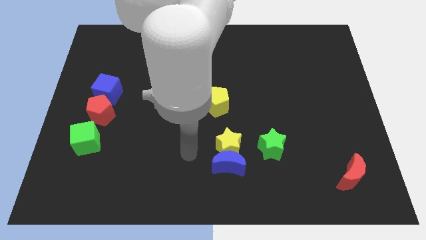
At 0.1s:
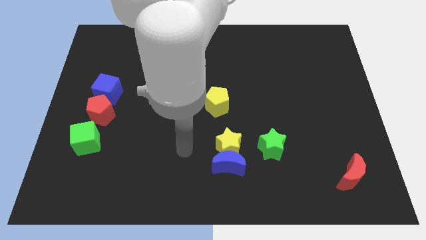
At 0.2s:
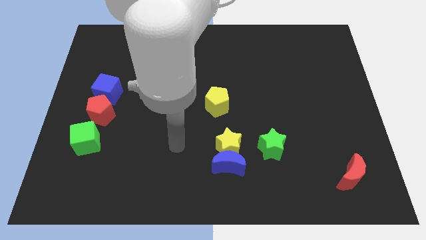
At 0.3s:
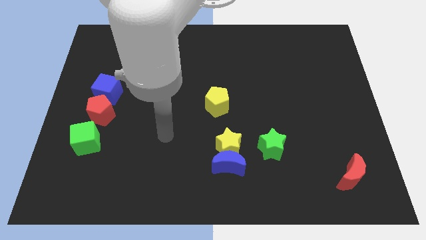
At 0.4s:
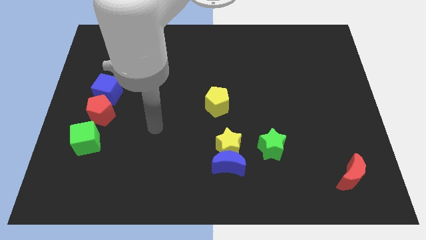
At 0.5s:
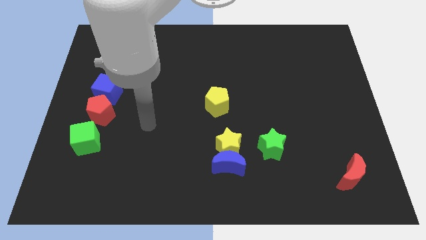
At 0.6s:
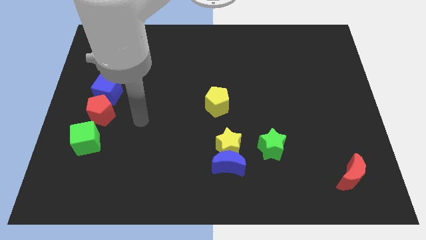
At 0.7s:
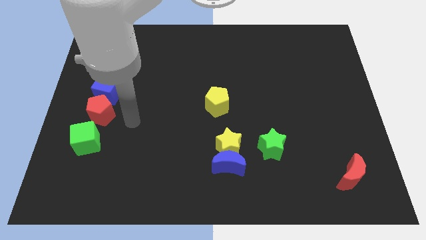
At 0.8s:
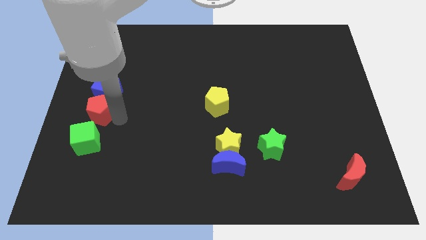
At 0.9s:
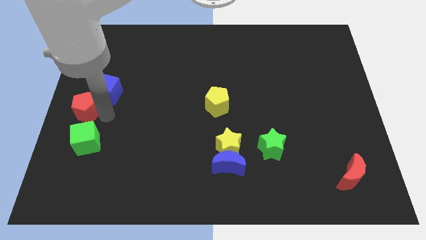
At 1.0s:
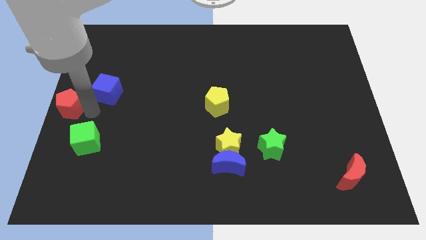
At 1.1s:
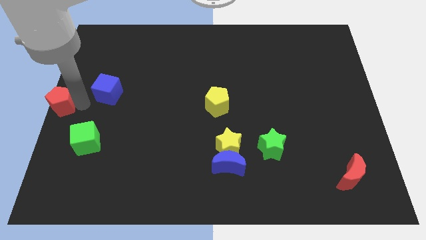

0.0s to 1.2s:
separate the blue cube from the red pentagon

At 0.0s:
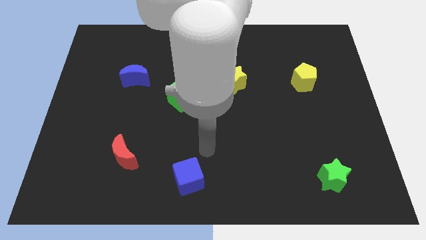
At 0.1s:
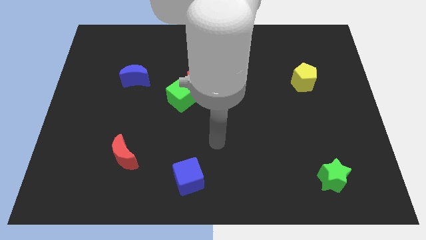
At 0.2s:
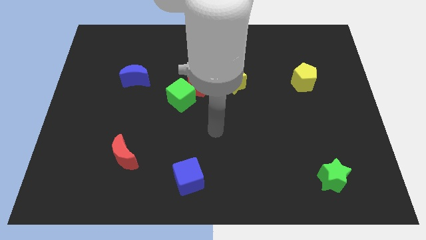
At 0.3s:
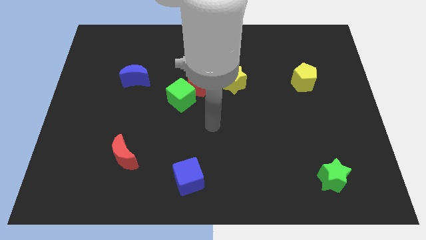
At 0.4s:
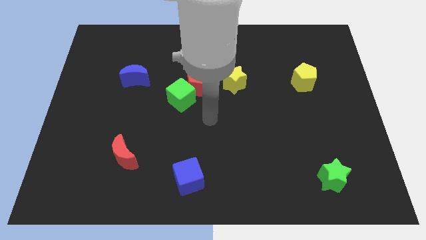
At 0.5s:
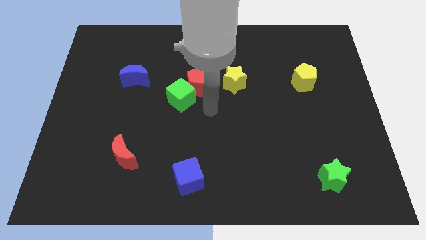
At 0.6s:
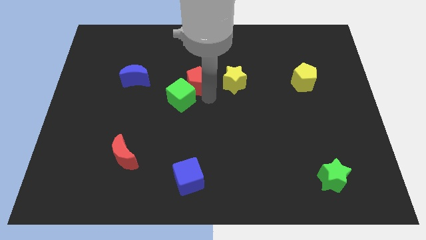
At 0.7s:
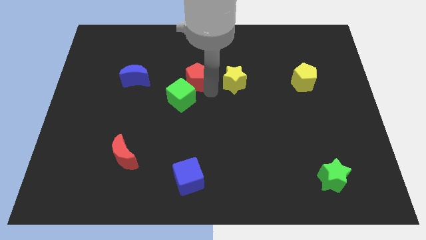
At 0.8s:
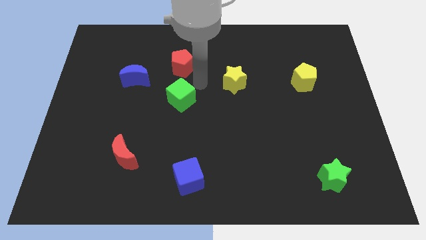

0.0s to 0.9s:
separate the green cube from the red pentagon

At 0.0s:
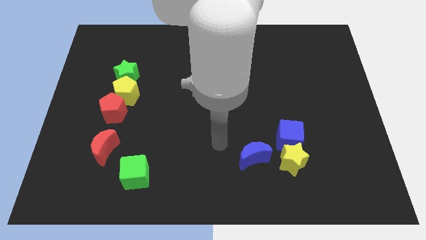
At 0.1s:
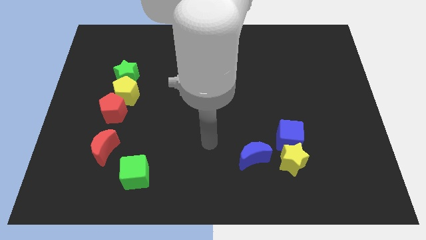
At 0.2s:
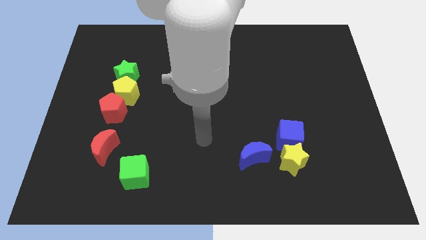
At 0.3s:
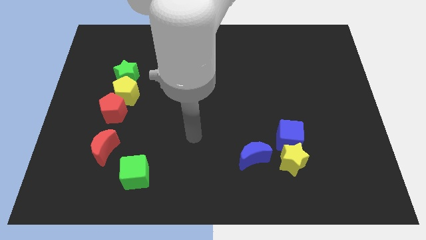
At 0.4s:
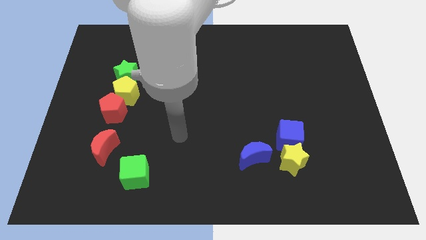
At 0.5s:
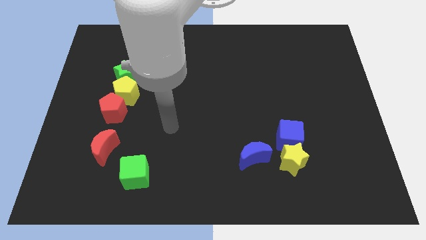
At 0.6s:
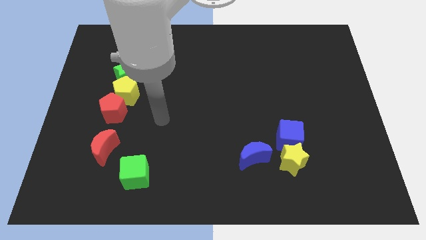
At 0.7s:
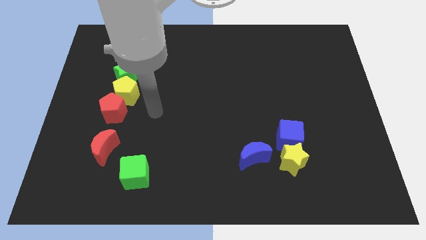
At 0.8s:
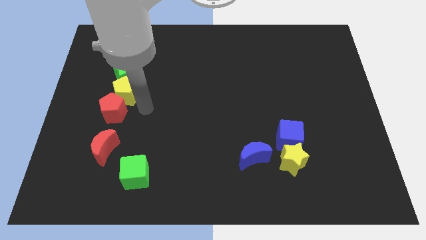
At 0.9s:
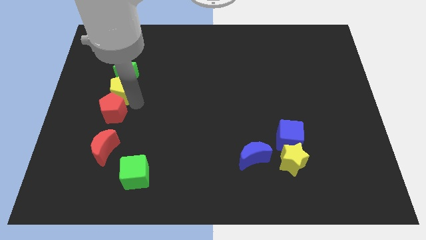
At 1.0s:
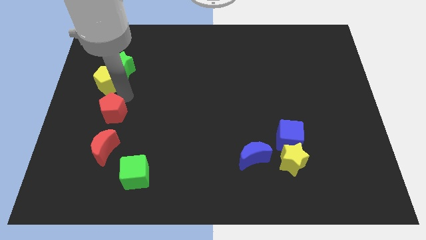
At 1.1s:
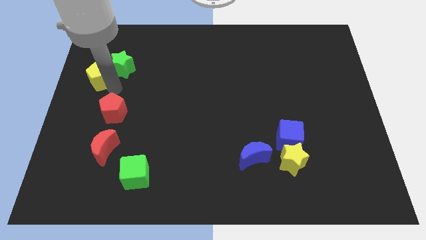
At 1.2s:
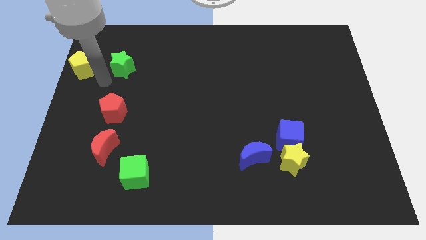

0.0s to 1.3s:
pull the green star apart from the yellow pentagon

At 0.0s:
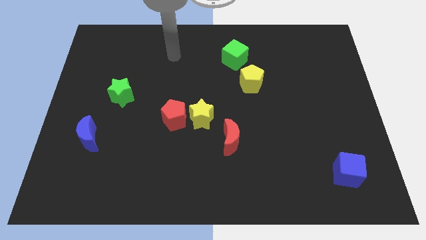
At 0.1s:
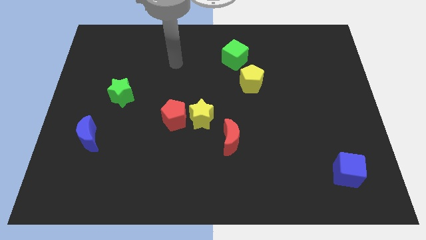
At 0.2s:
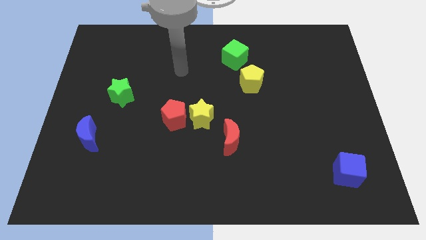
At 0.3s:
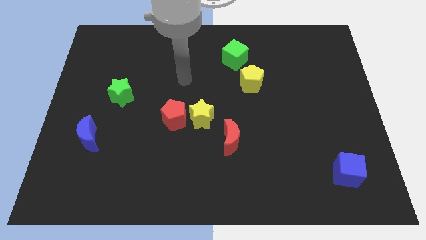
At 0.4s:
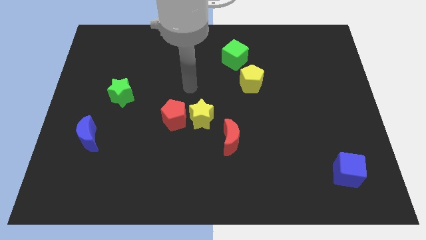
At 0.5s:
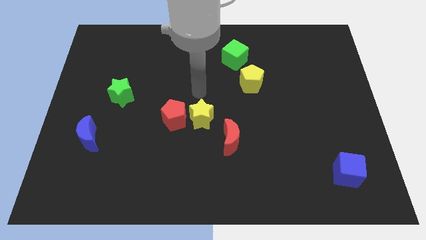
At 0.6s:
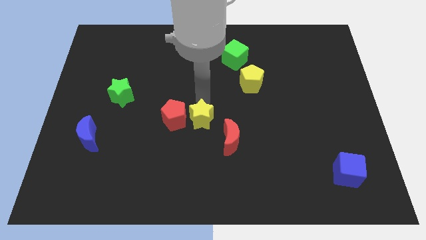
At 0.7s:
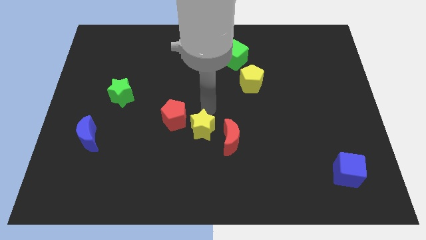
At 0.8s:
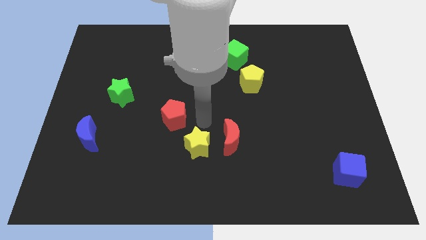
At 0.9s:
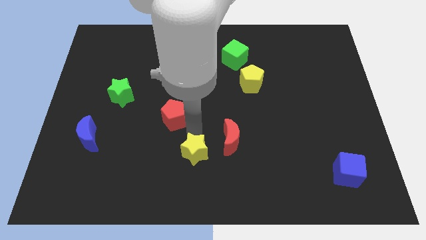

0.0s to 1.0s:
pull the red pentagon apart from the yellow star

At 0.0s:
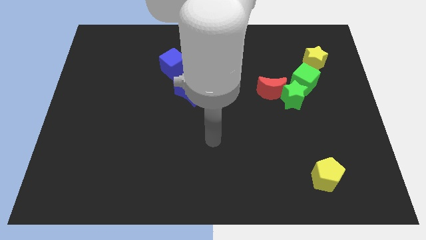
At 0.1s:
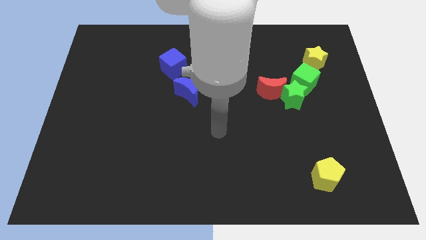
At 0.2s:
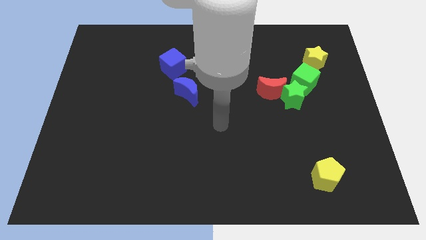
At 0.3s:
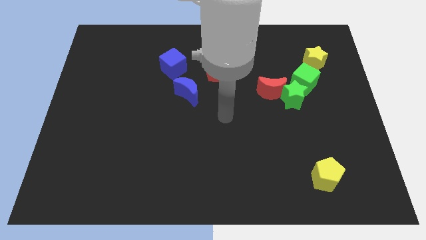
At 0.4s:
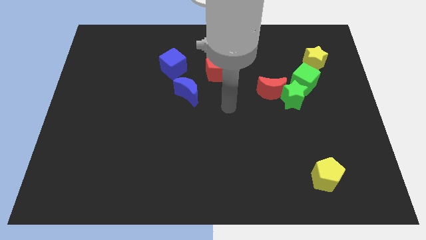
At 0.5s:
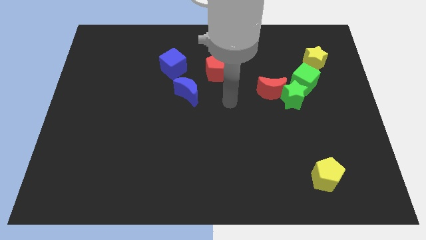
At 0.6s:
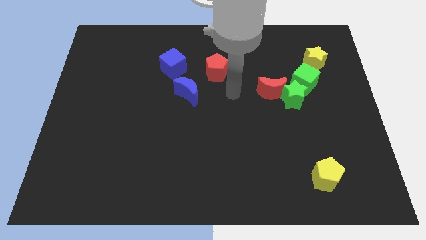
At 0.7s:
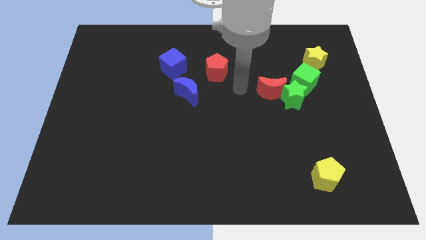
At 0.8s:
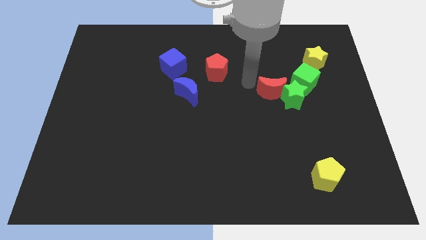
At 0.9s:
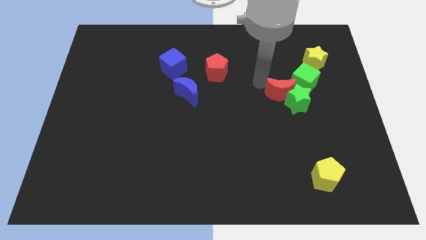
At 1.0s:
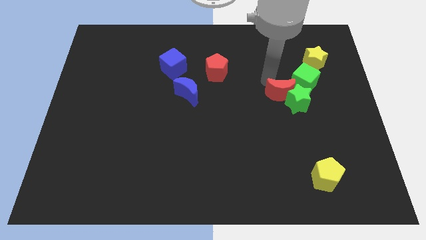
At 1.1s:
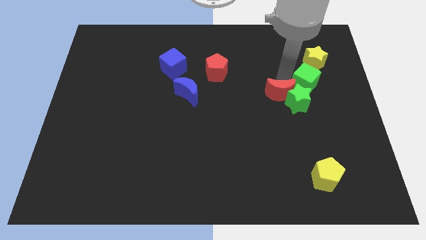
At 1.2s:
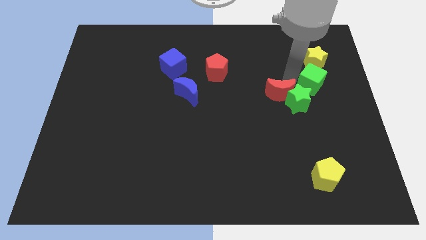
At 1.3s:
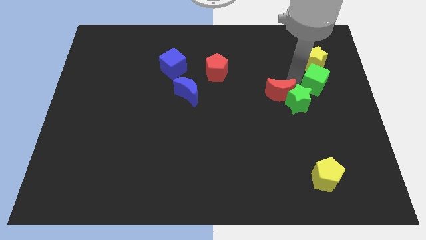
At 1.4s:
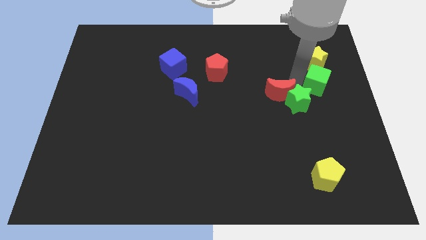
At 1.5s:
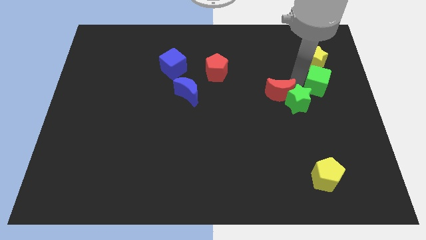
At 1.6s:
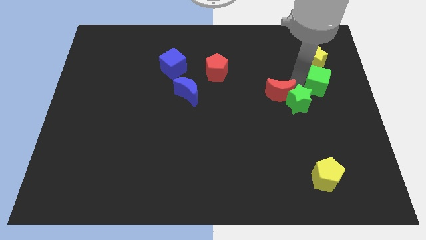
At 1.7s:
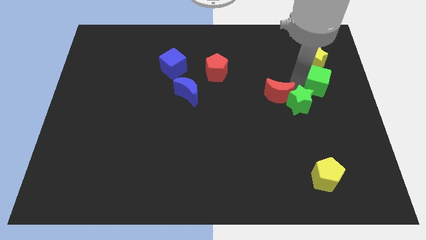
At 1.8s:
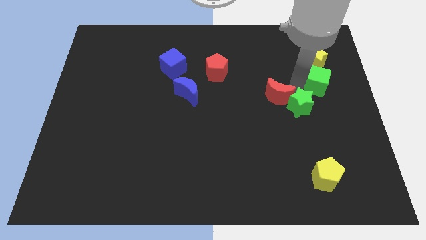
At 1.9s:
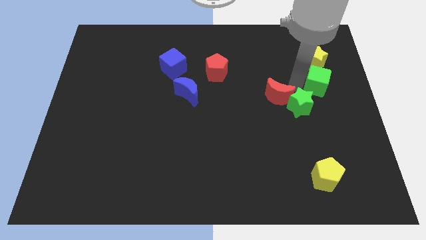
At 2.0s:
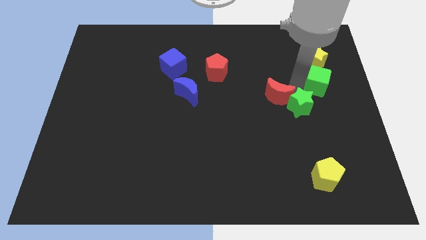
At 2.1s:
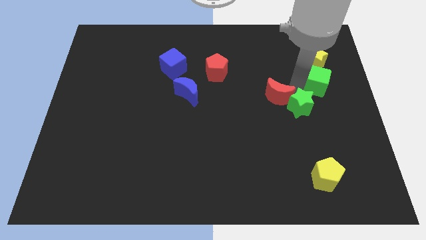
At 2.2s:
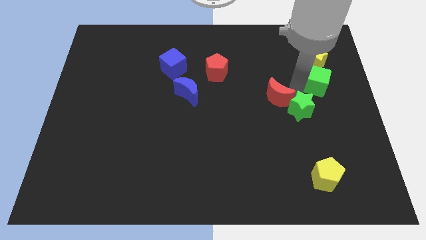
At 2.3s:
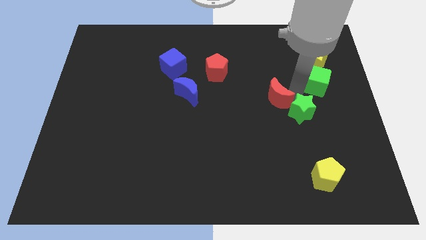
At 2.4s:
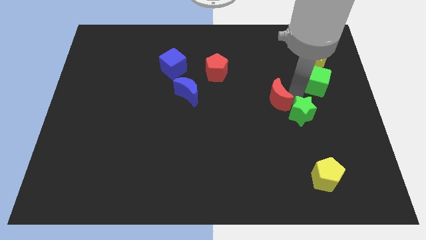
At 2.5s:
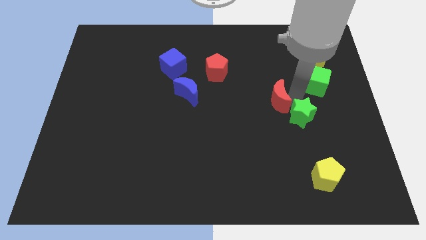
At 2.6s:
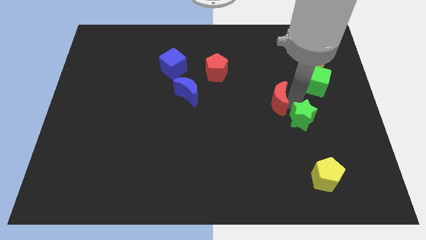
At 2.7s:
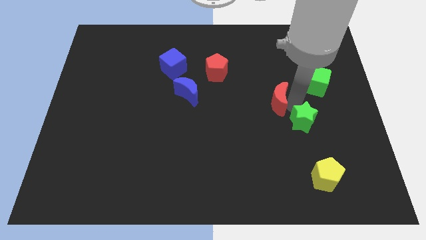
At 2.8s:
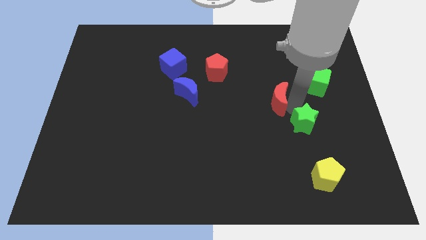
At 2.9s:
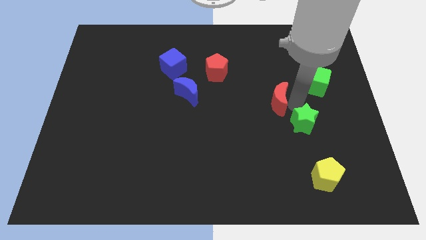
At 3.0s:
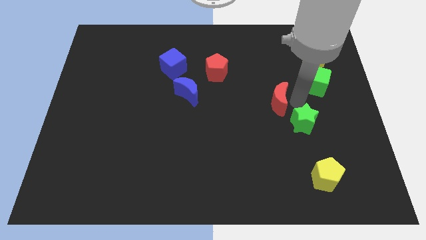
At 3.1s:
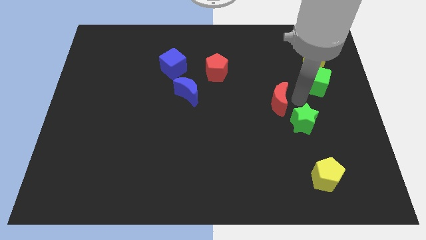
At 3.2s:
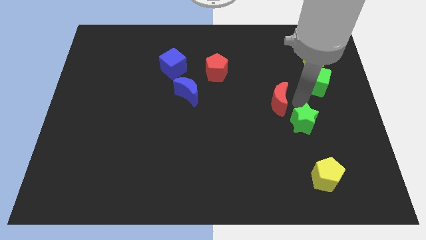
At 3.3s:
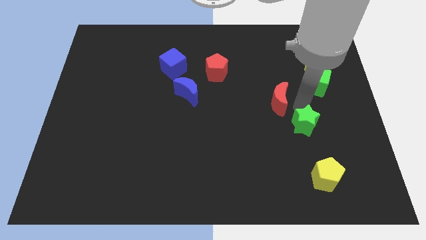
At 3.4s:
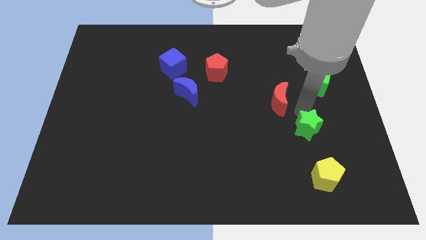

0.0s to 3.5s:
move the green star away from the red moon and green cube

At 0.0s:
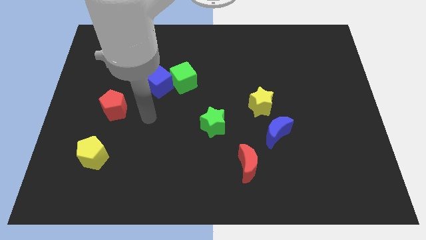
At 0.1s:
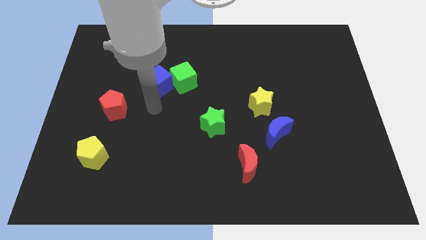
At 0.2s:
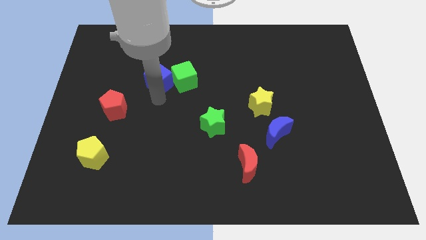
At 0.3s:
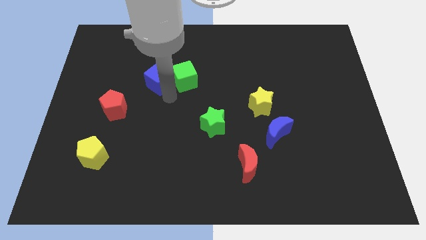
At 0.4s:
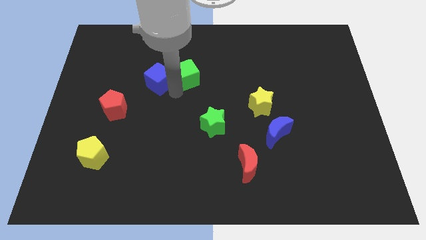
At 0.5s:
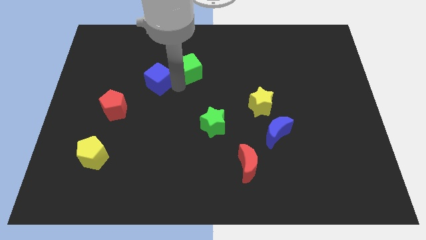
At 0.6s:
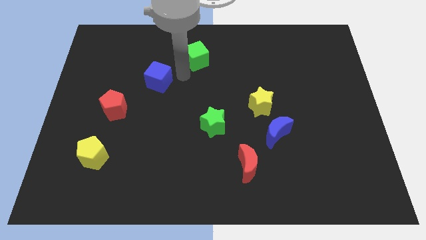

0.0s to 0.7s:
move the blue cube away from the green cube

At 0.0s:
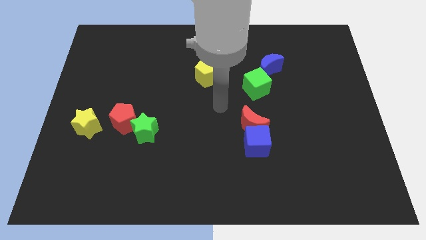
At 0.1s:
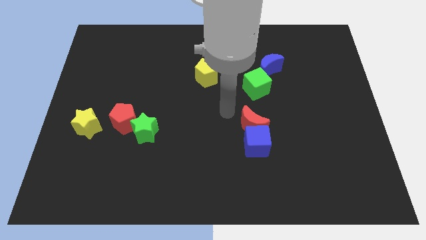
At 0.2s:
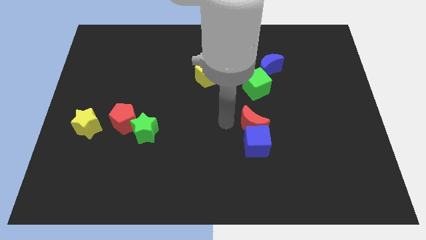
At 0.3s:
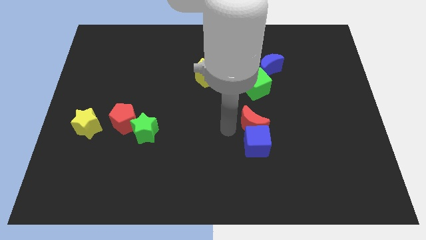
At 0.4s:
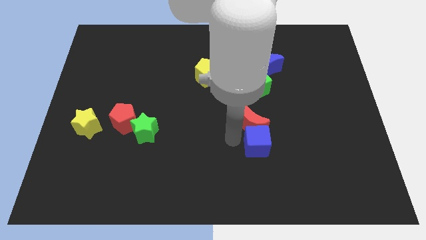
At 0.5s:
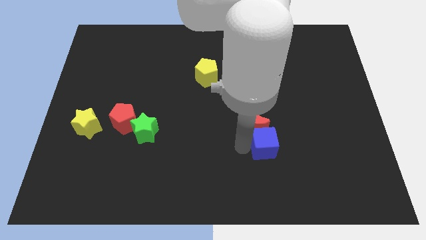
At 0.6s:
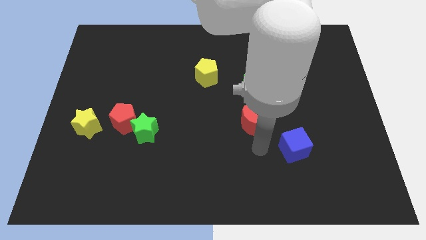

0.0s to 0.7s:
separate the red moon from the blue cube
